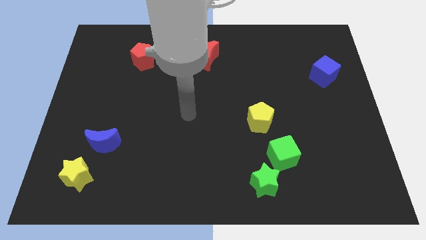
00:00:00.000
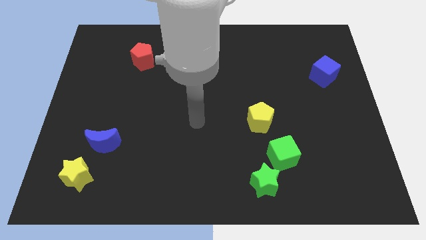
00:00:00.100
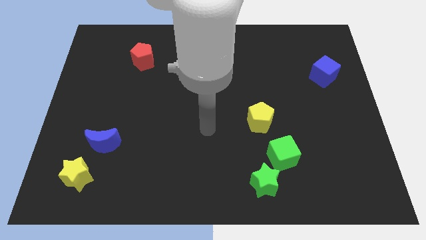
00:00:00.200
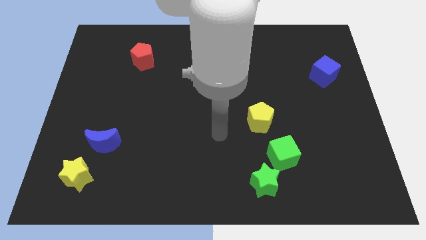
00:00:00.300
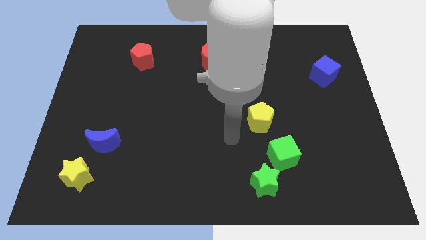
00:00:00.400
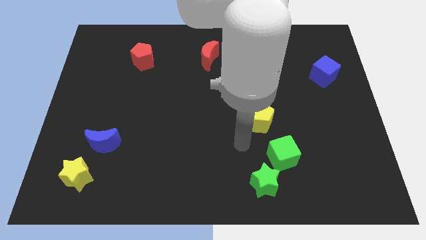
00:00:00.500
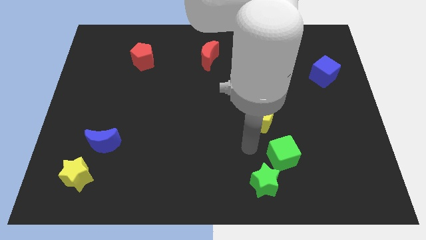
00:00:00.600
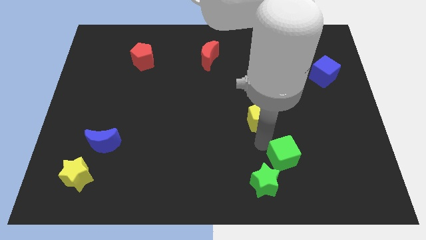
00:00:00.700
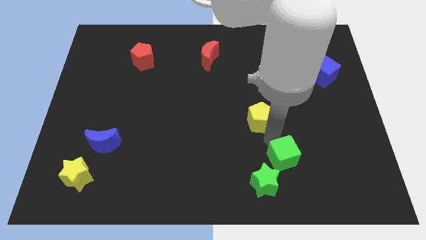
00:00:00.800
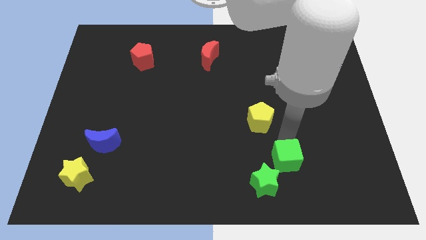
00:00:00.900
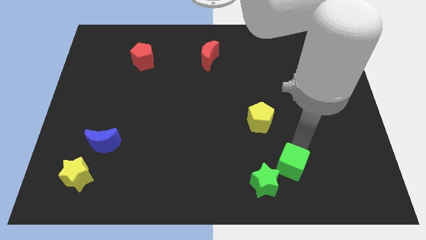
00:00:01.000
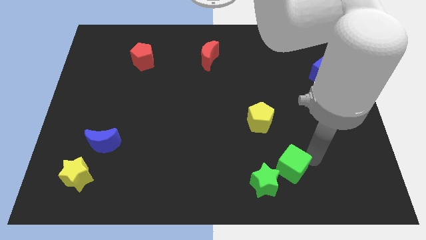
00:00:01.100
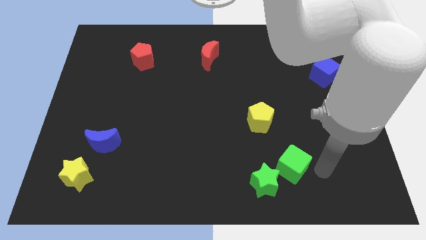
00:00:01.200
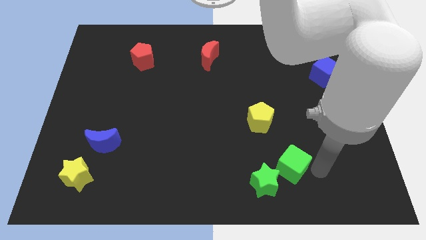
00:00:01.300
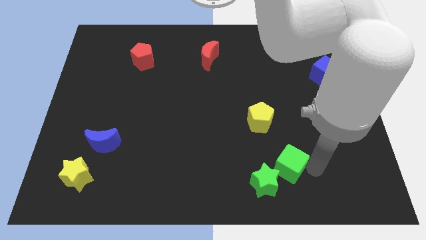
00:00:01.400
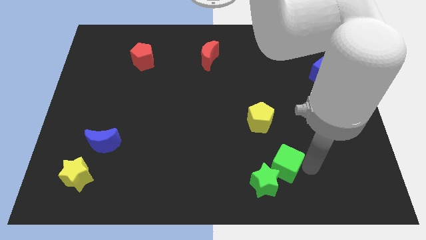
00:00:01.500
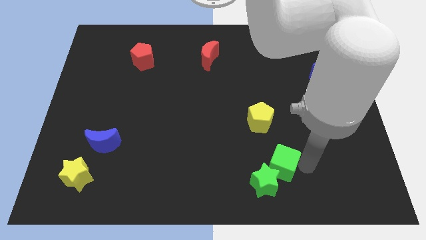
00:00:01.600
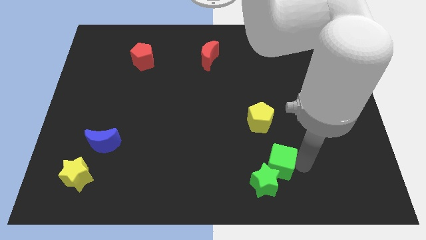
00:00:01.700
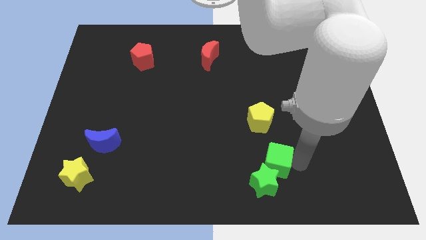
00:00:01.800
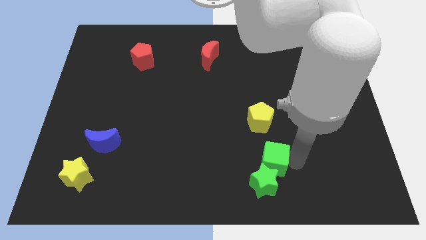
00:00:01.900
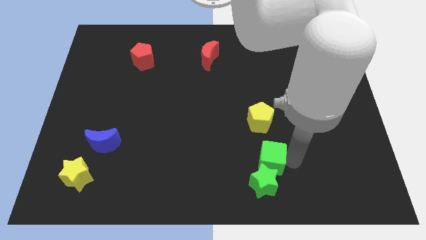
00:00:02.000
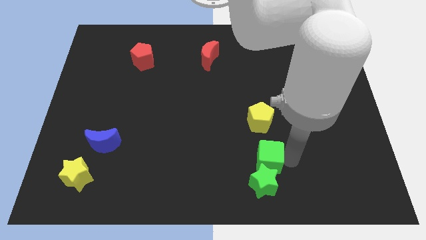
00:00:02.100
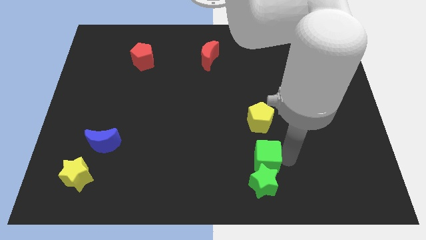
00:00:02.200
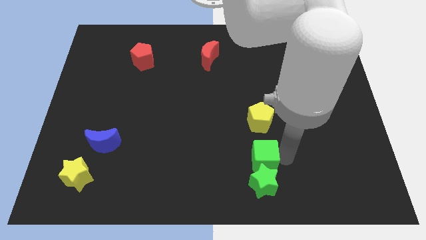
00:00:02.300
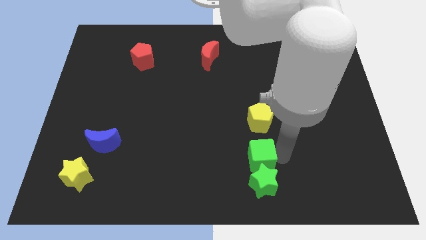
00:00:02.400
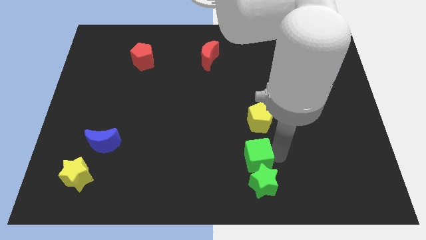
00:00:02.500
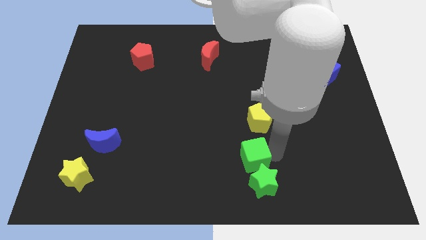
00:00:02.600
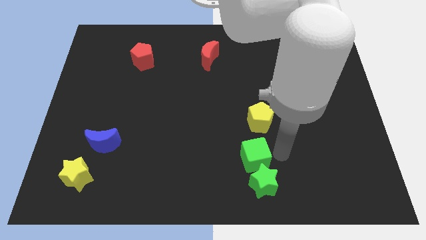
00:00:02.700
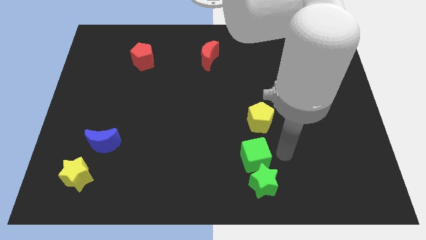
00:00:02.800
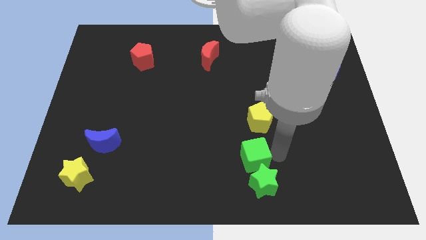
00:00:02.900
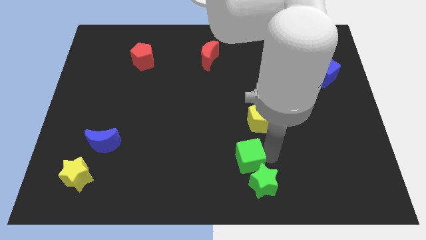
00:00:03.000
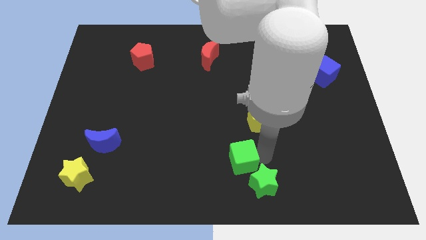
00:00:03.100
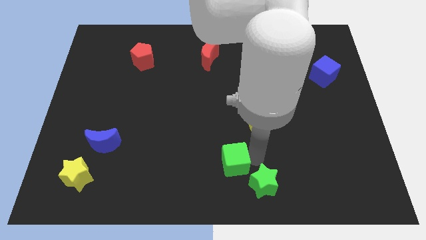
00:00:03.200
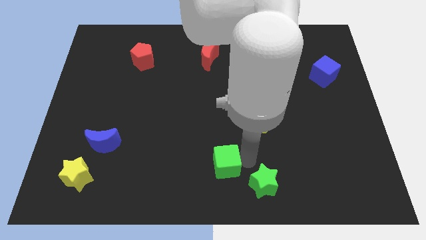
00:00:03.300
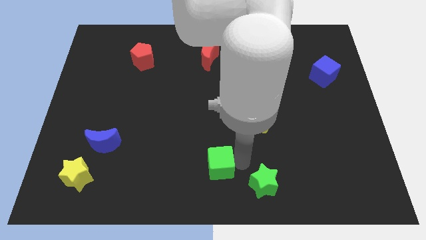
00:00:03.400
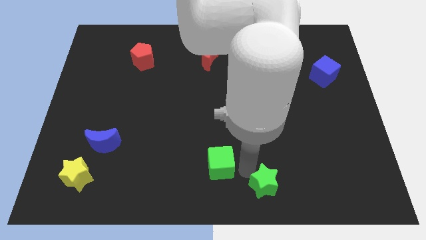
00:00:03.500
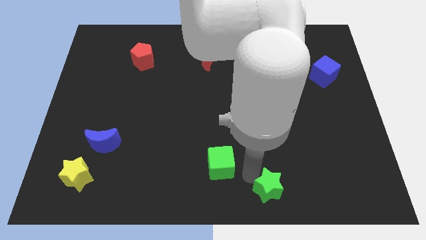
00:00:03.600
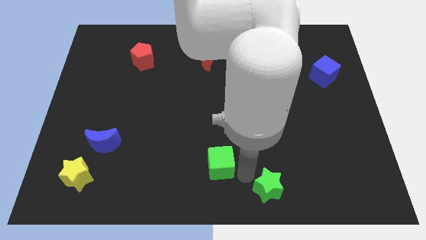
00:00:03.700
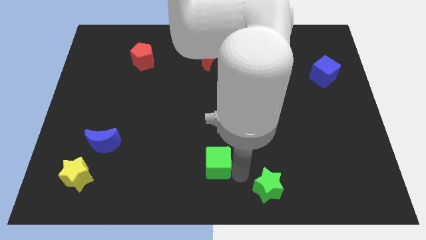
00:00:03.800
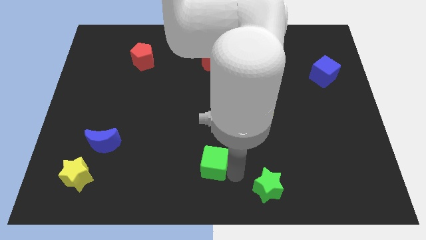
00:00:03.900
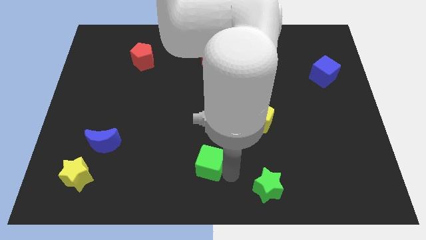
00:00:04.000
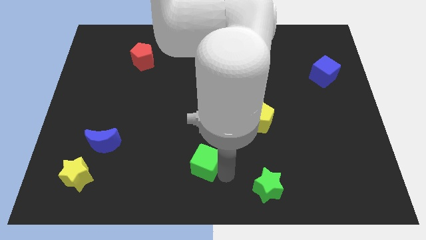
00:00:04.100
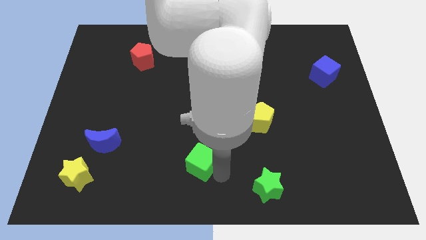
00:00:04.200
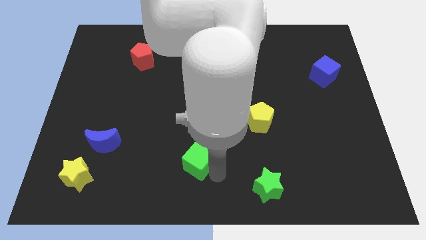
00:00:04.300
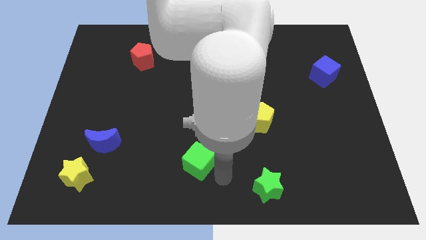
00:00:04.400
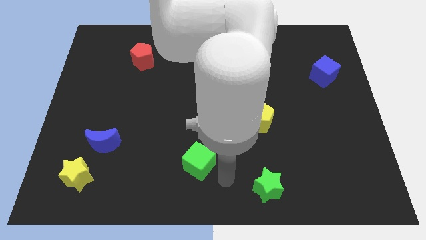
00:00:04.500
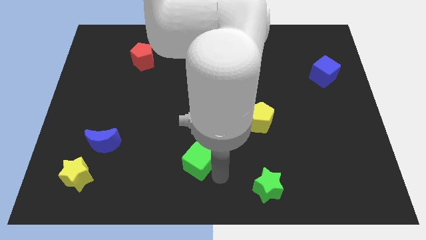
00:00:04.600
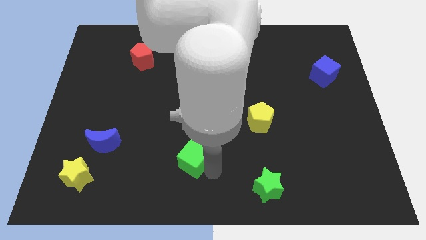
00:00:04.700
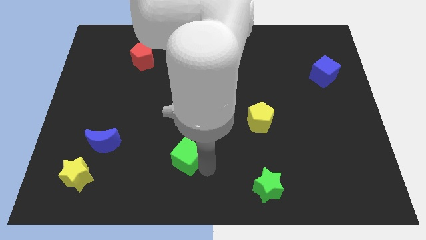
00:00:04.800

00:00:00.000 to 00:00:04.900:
push the green cube to the left

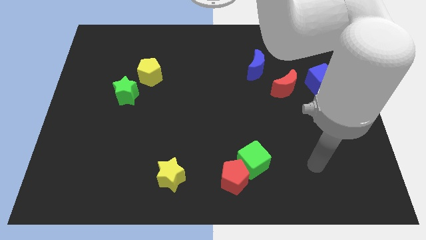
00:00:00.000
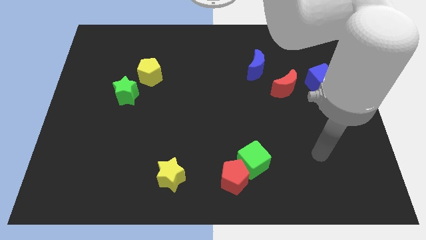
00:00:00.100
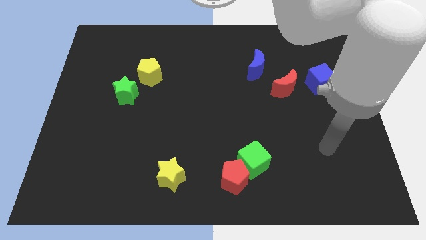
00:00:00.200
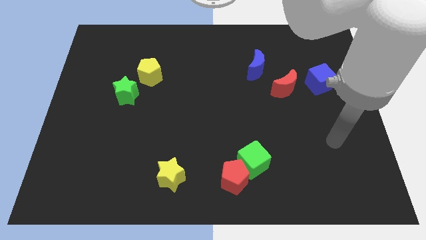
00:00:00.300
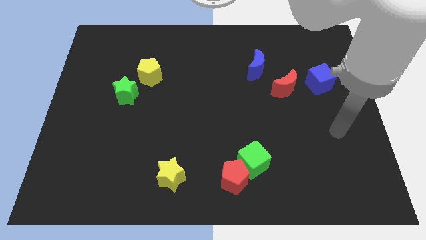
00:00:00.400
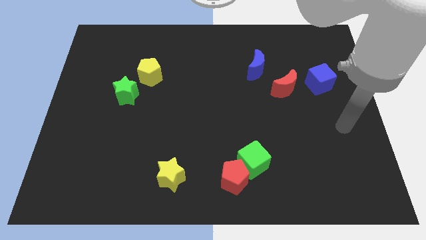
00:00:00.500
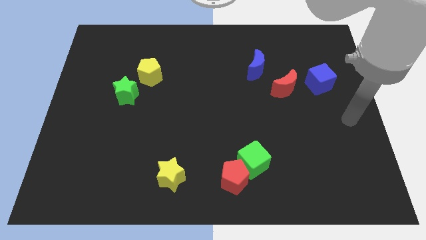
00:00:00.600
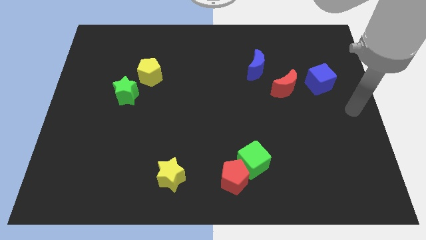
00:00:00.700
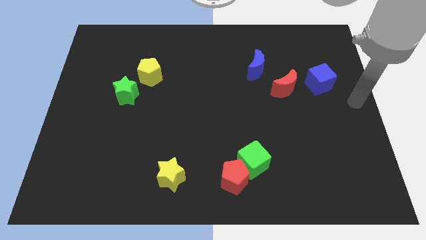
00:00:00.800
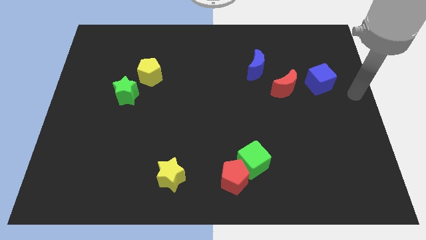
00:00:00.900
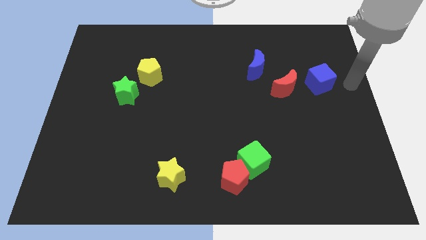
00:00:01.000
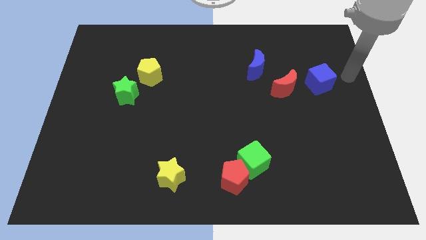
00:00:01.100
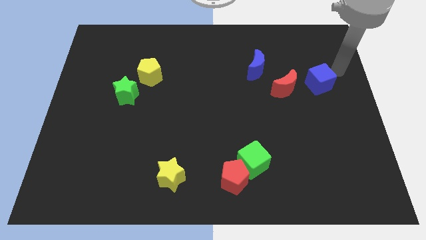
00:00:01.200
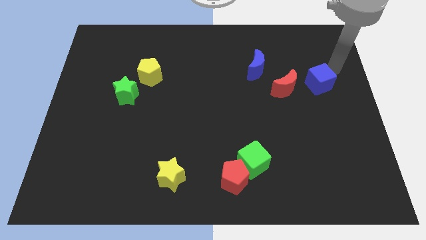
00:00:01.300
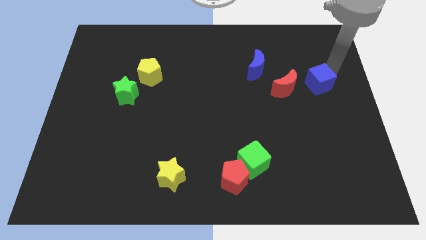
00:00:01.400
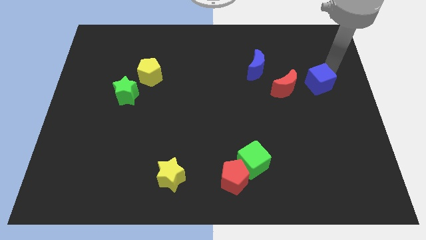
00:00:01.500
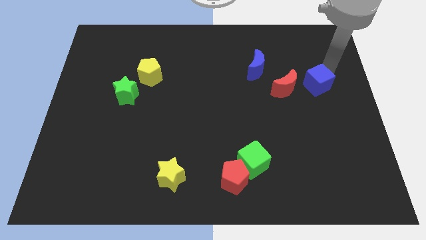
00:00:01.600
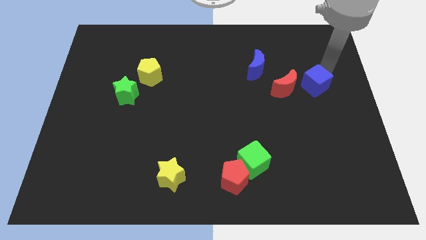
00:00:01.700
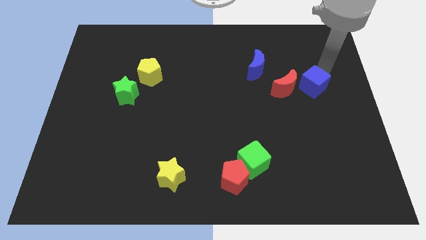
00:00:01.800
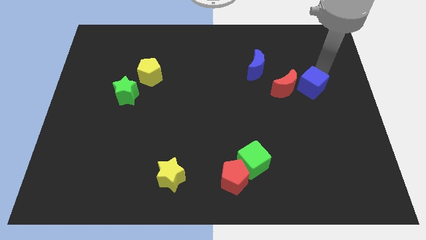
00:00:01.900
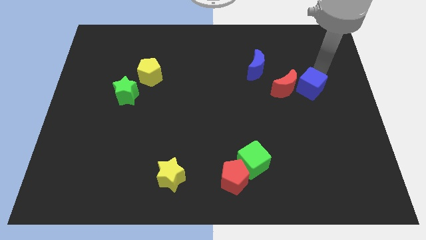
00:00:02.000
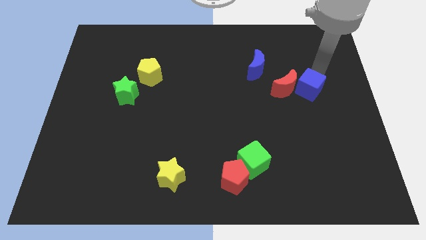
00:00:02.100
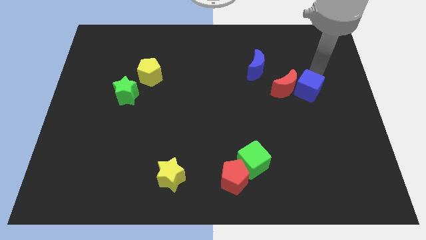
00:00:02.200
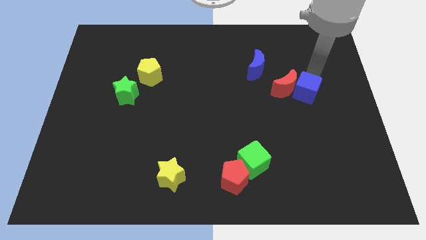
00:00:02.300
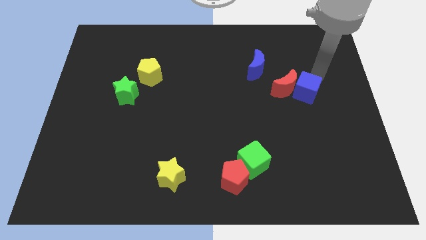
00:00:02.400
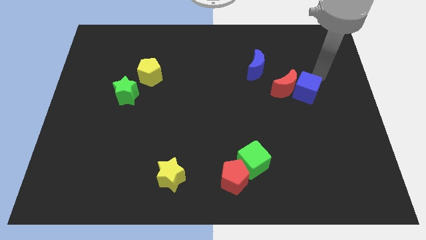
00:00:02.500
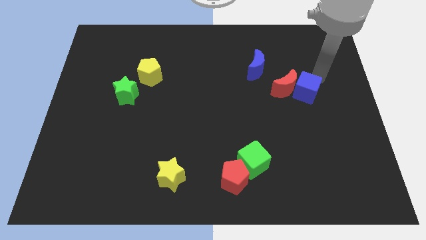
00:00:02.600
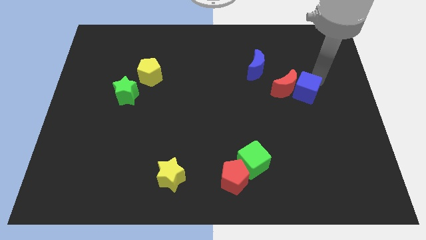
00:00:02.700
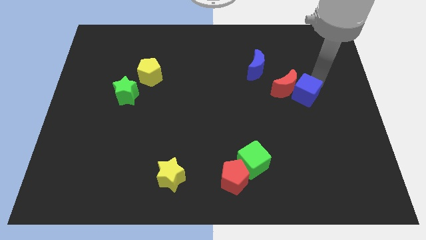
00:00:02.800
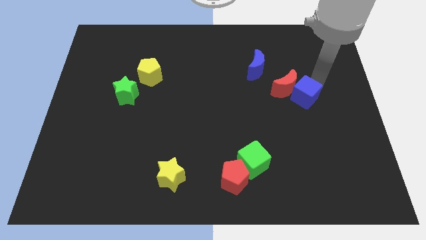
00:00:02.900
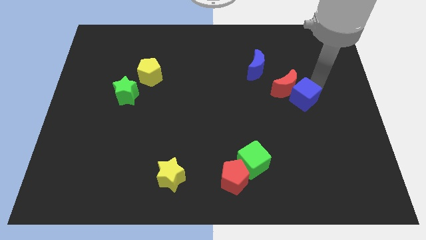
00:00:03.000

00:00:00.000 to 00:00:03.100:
push the blue cube downwards and to the left a little
